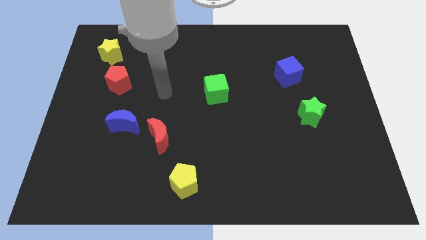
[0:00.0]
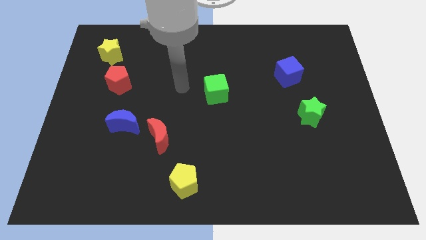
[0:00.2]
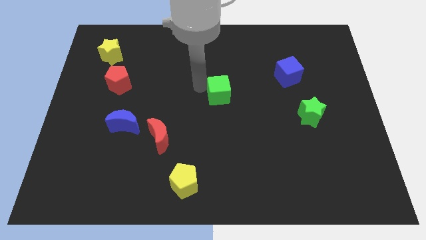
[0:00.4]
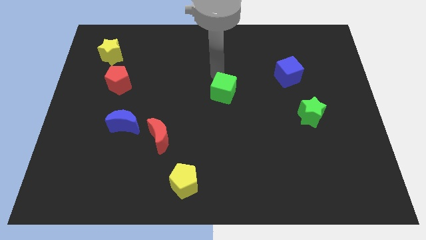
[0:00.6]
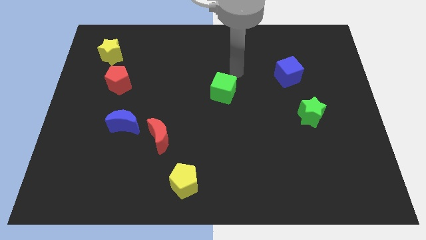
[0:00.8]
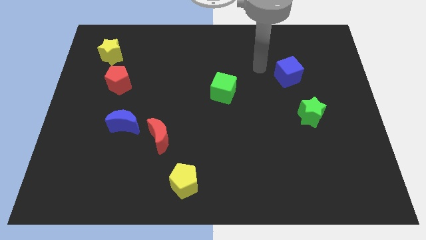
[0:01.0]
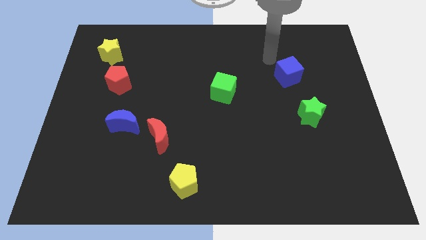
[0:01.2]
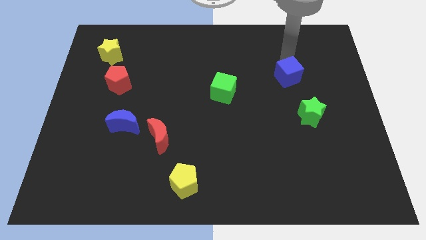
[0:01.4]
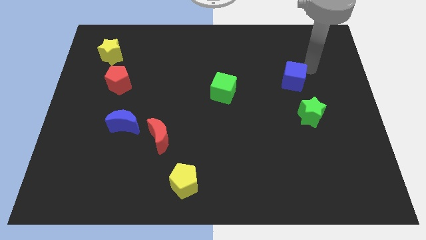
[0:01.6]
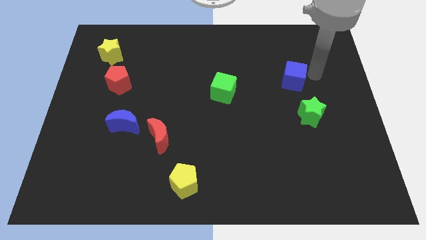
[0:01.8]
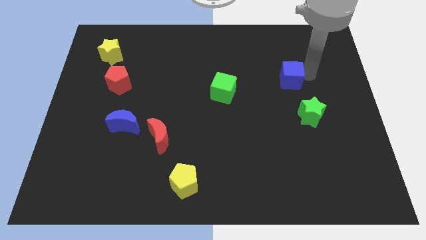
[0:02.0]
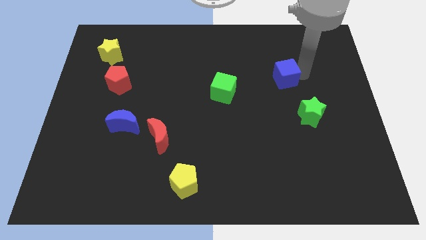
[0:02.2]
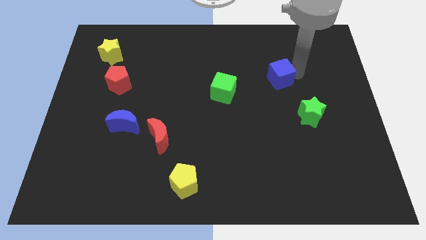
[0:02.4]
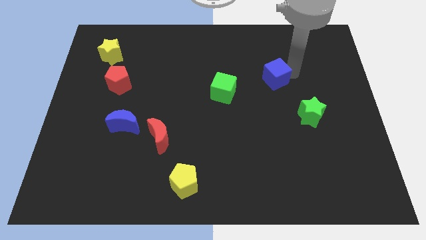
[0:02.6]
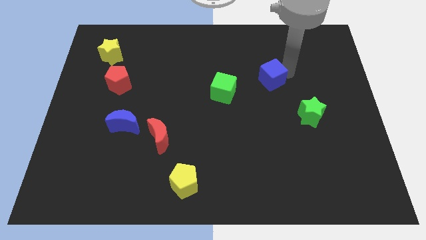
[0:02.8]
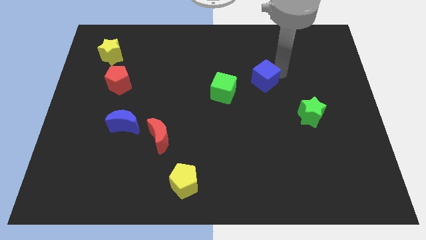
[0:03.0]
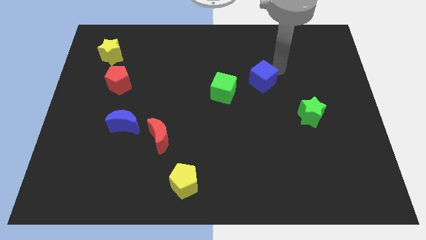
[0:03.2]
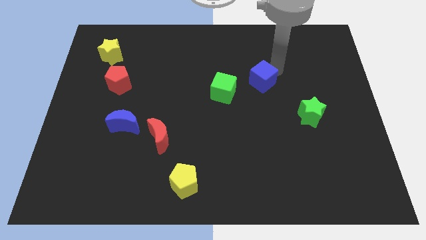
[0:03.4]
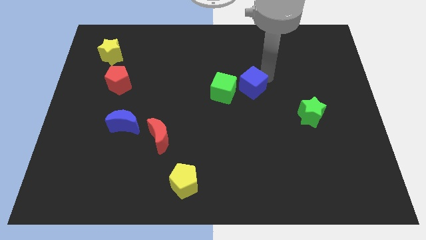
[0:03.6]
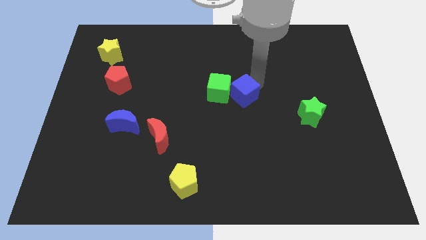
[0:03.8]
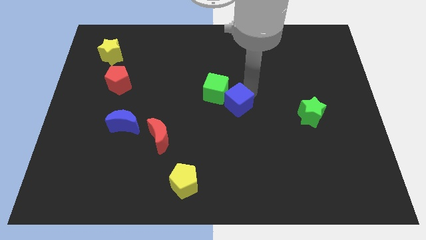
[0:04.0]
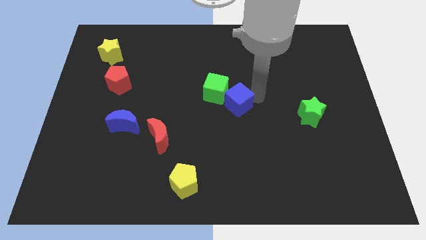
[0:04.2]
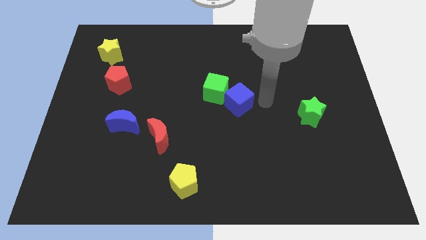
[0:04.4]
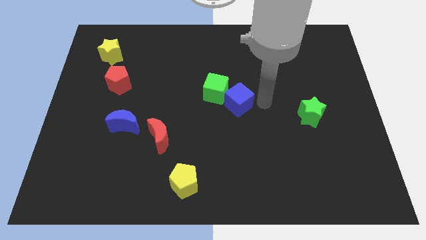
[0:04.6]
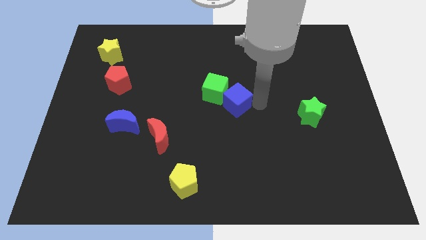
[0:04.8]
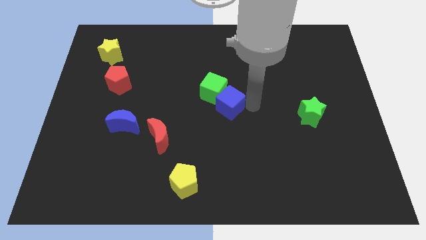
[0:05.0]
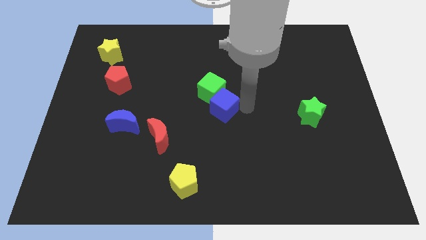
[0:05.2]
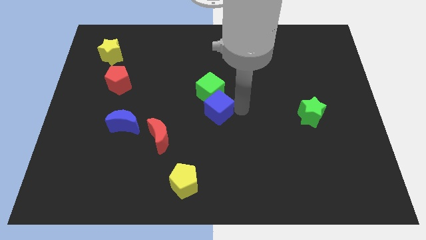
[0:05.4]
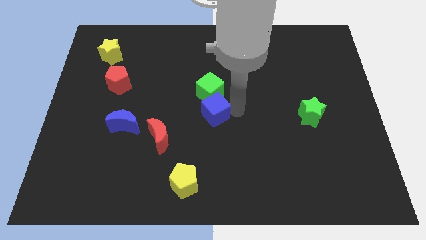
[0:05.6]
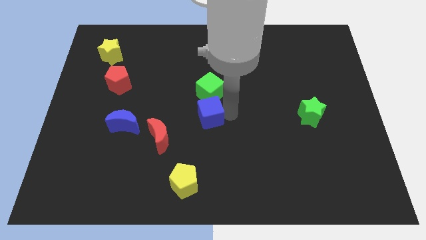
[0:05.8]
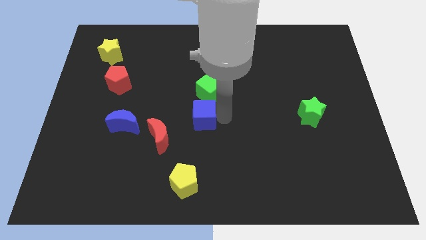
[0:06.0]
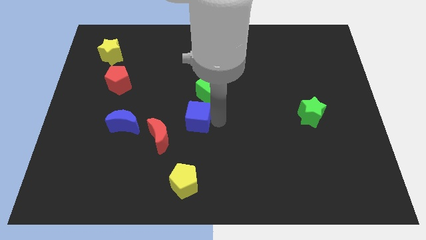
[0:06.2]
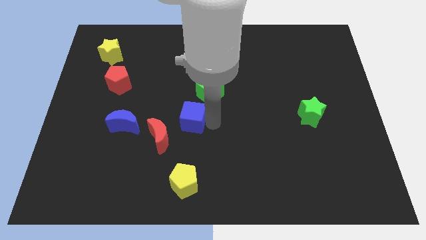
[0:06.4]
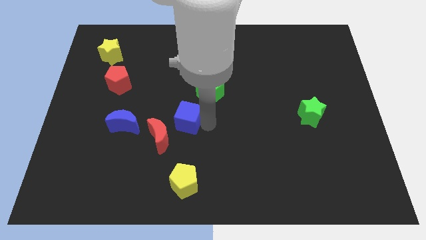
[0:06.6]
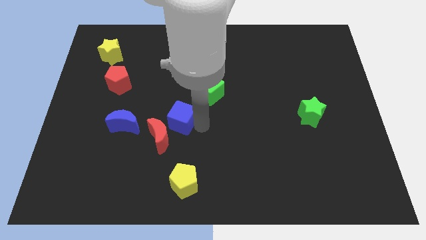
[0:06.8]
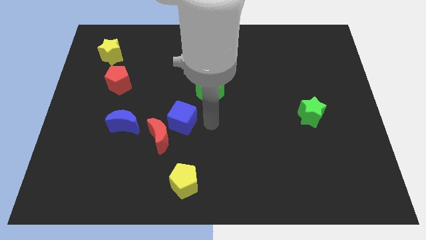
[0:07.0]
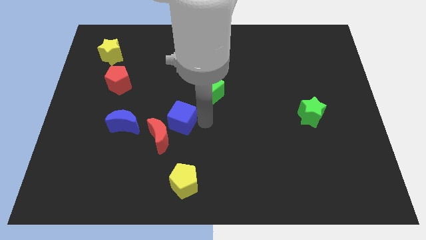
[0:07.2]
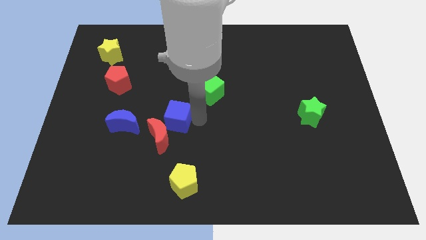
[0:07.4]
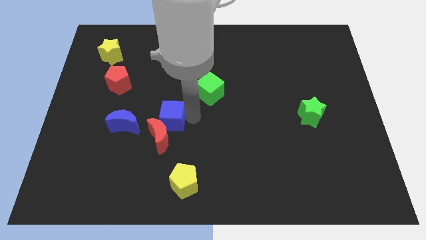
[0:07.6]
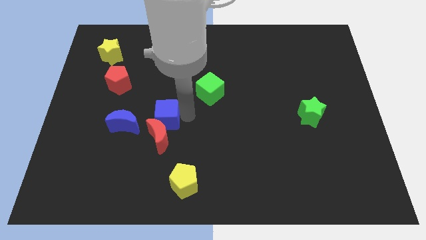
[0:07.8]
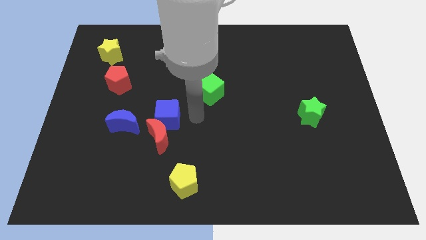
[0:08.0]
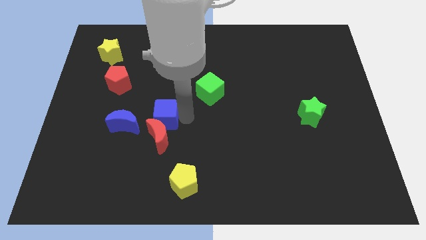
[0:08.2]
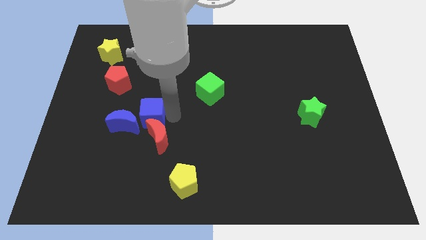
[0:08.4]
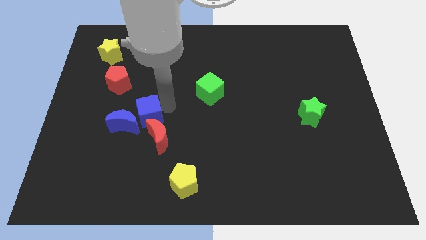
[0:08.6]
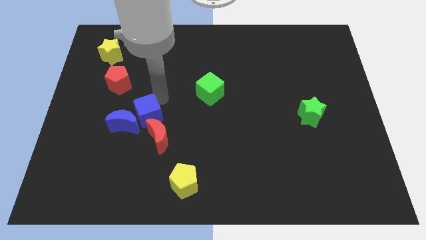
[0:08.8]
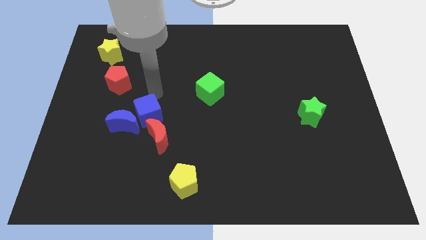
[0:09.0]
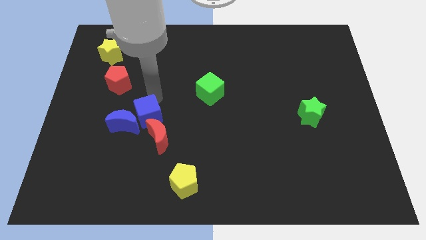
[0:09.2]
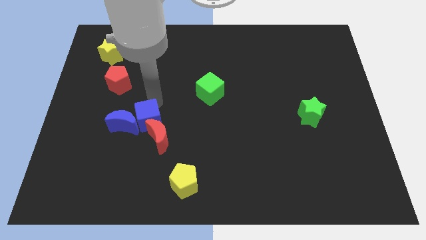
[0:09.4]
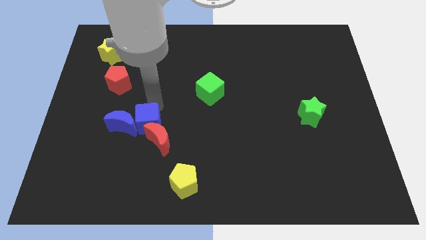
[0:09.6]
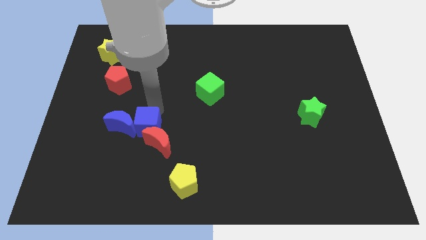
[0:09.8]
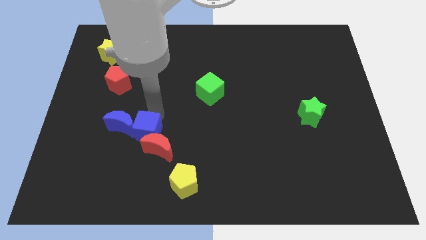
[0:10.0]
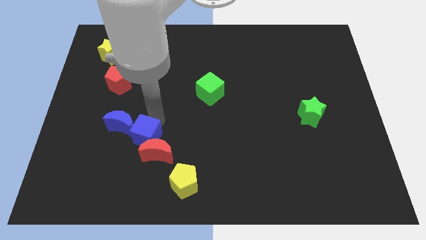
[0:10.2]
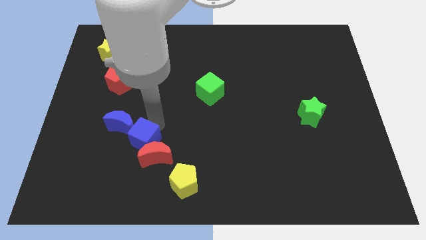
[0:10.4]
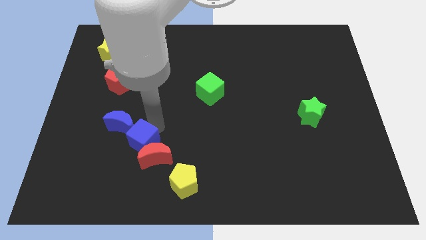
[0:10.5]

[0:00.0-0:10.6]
slide the blue cube to the left of the red moon

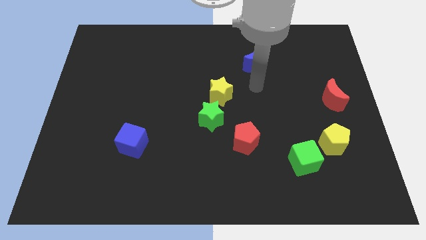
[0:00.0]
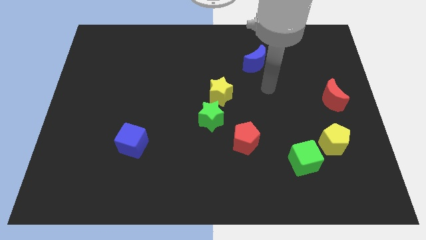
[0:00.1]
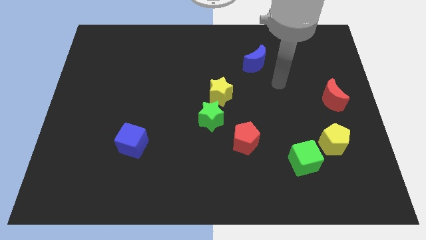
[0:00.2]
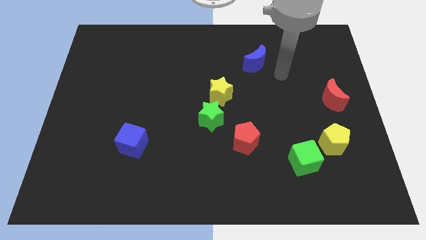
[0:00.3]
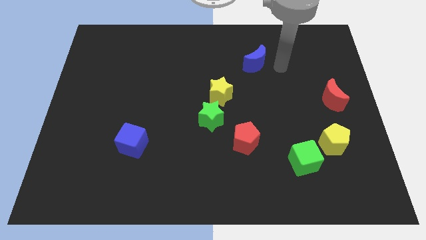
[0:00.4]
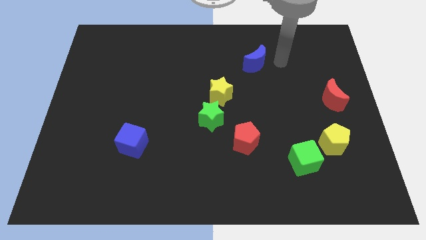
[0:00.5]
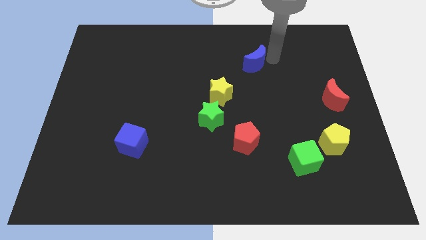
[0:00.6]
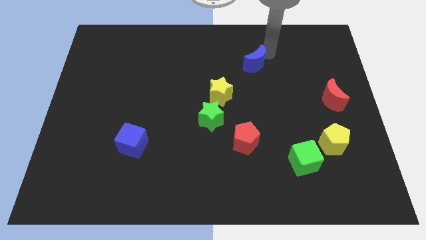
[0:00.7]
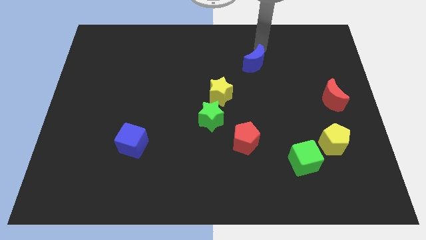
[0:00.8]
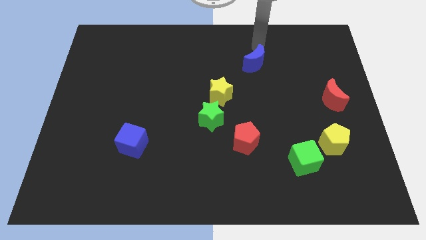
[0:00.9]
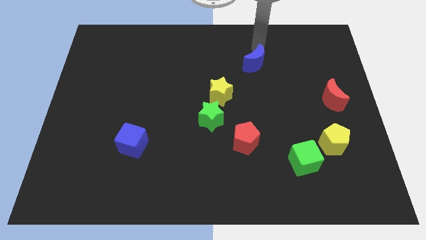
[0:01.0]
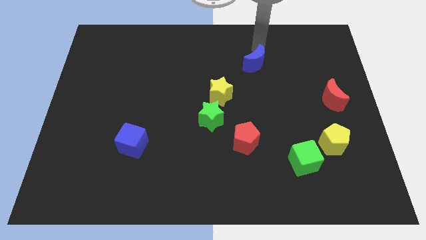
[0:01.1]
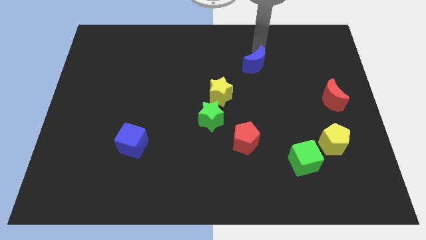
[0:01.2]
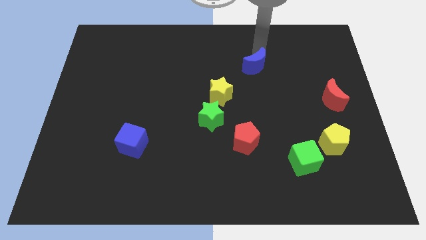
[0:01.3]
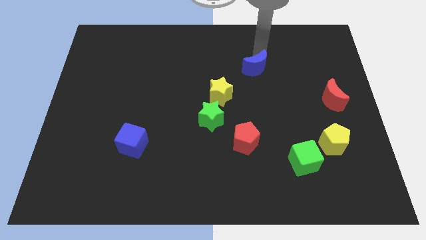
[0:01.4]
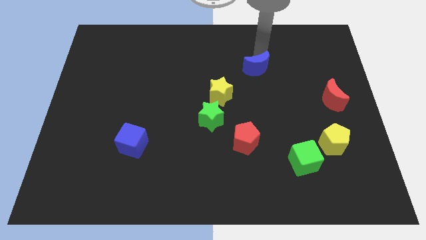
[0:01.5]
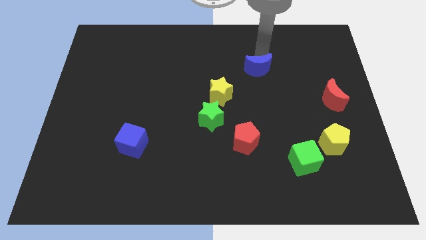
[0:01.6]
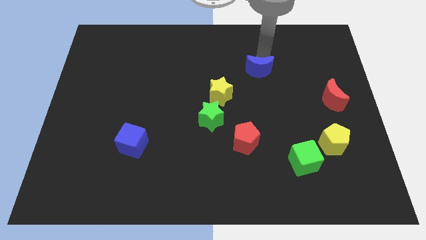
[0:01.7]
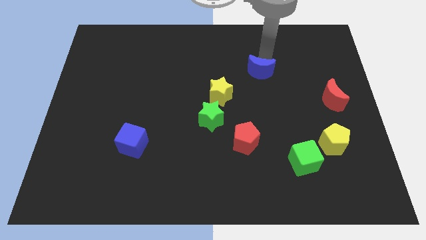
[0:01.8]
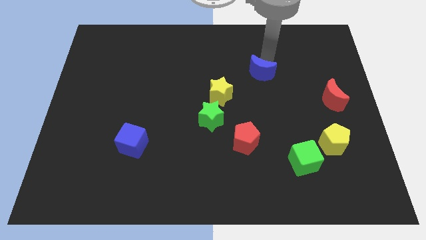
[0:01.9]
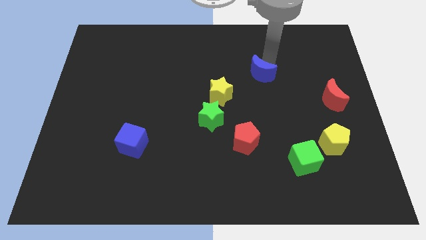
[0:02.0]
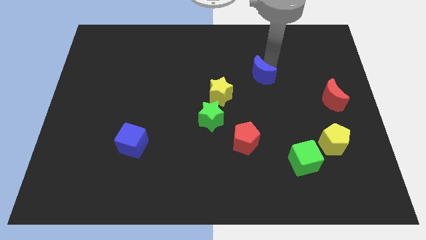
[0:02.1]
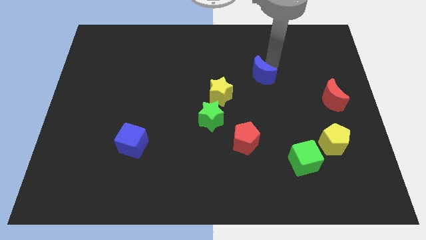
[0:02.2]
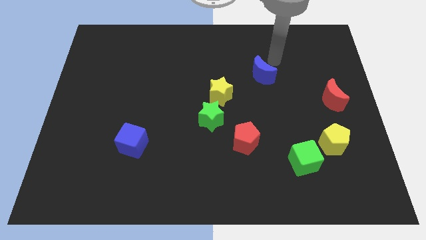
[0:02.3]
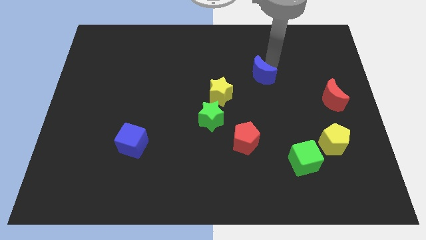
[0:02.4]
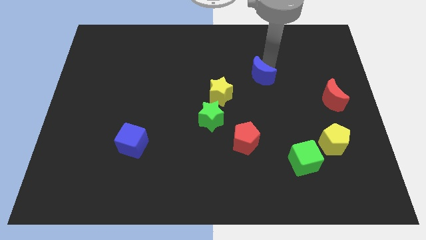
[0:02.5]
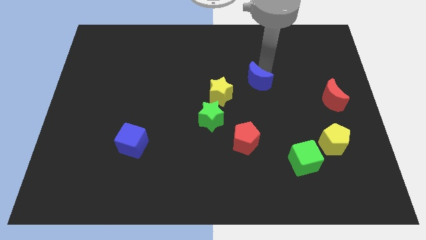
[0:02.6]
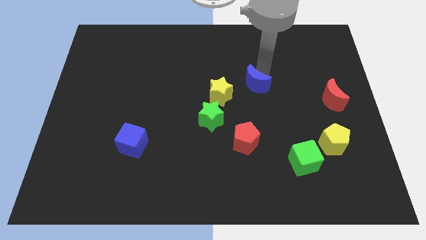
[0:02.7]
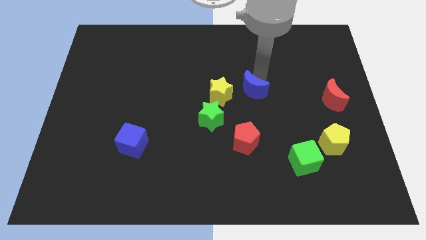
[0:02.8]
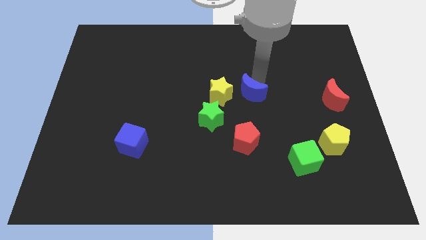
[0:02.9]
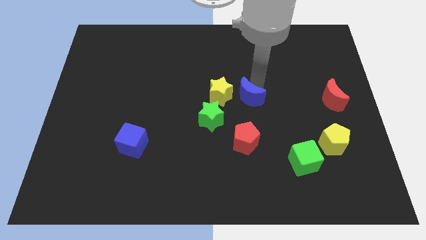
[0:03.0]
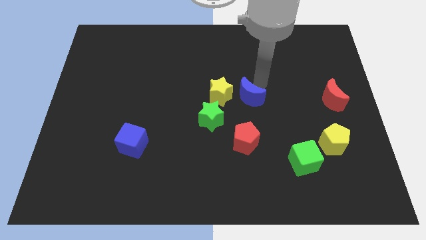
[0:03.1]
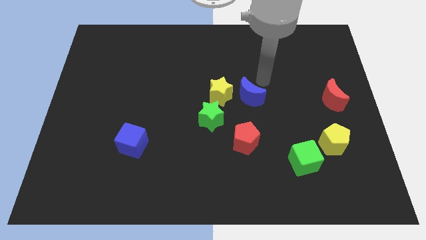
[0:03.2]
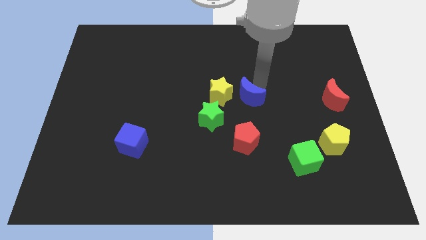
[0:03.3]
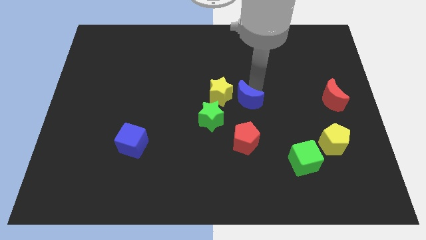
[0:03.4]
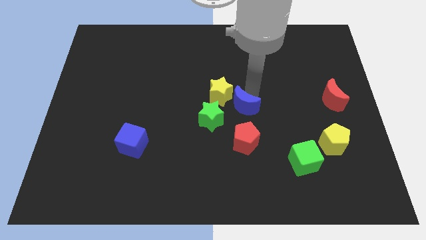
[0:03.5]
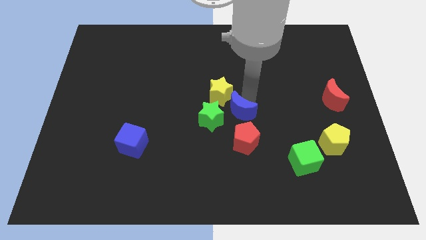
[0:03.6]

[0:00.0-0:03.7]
put the blue moon to the bottom side of the yellow star
